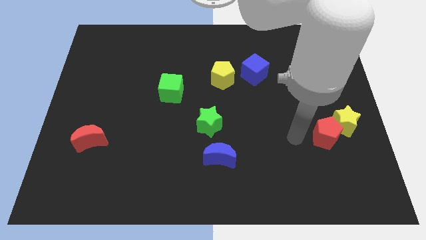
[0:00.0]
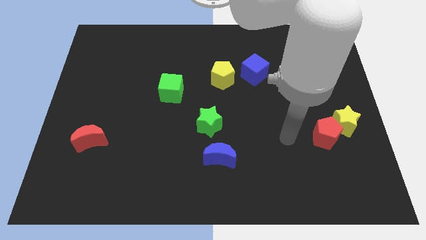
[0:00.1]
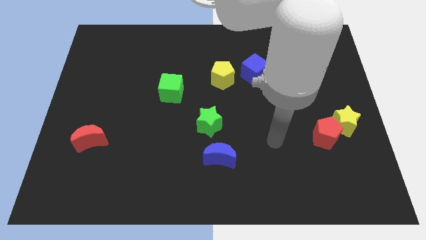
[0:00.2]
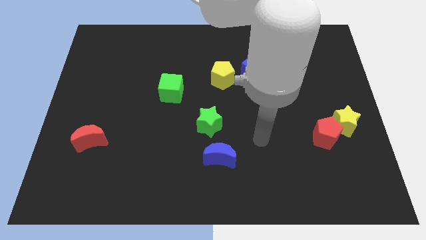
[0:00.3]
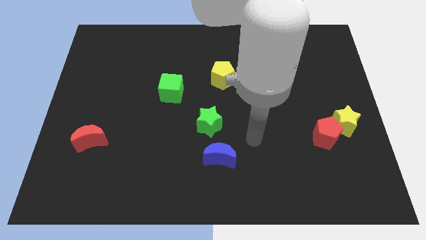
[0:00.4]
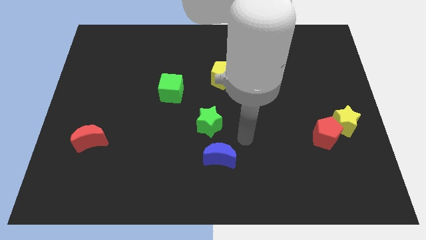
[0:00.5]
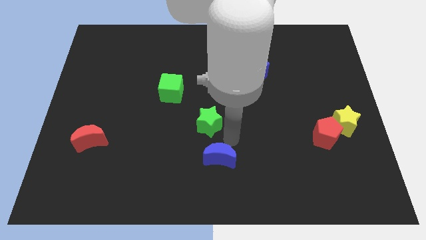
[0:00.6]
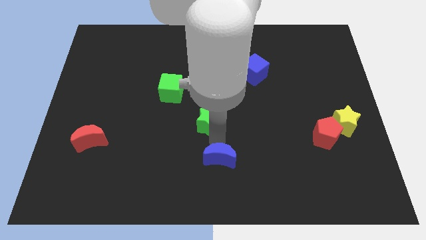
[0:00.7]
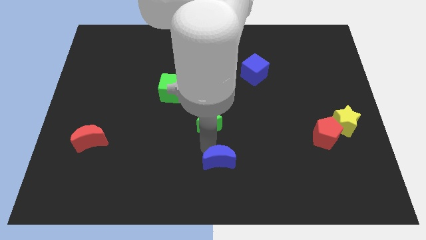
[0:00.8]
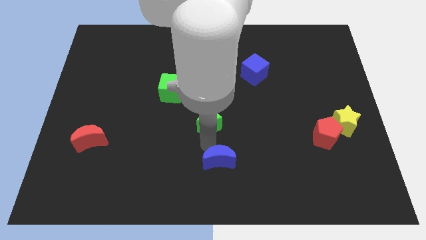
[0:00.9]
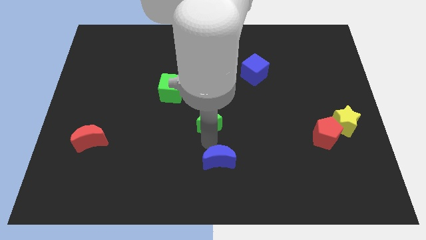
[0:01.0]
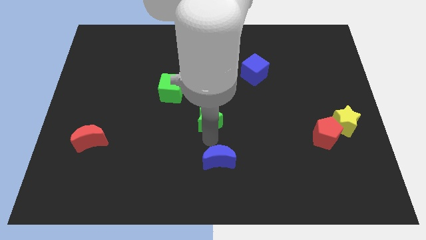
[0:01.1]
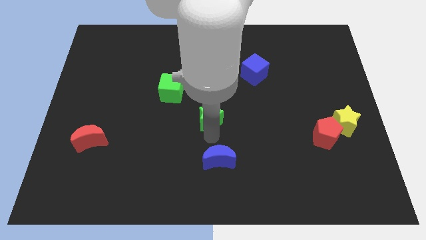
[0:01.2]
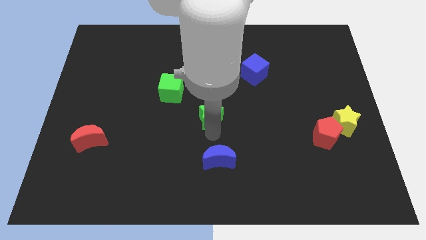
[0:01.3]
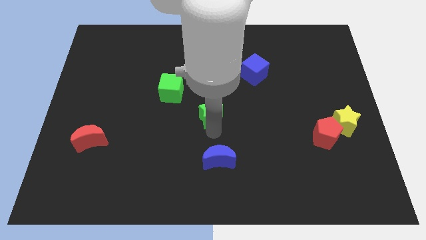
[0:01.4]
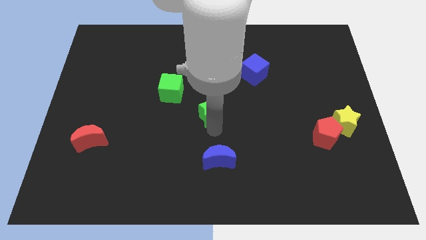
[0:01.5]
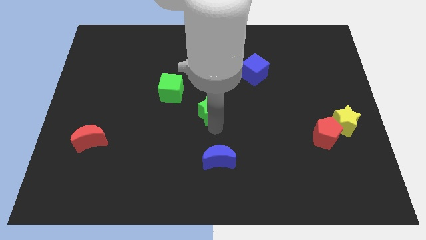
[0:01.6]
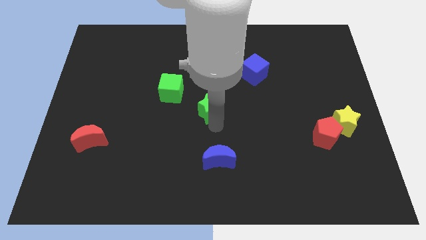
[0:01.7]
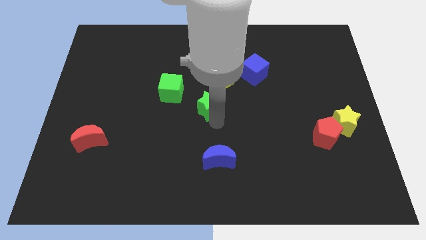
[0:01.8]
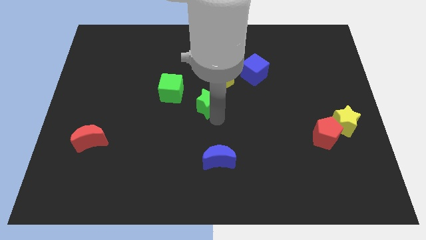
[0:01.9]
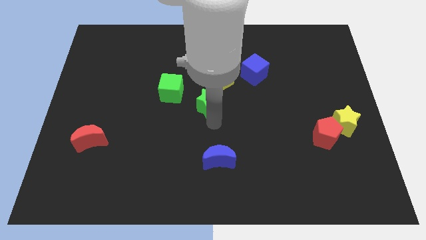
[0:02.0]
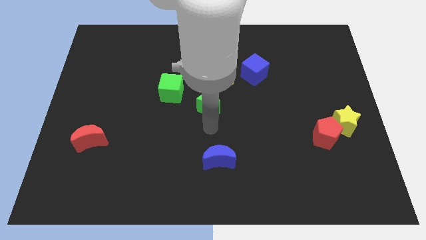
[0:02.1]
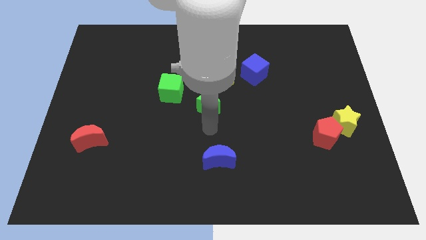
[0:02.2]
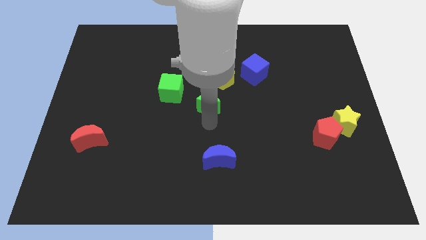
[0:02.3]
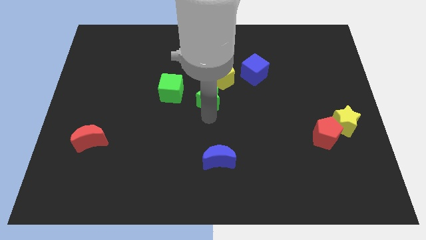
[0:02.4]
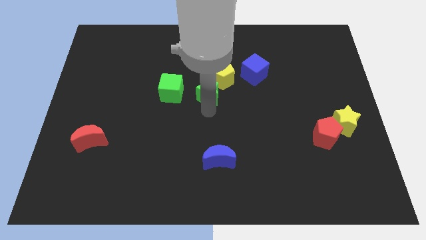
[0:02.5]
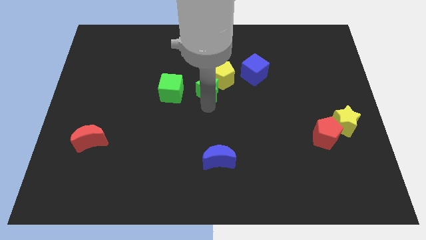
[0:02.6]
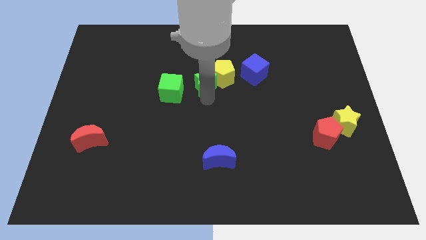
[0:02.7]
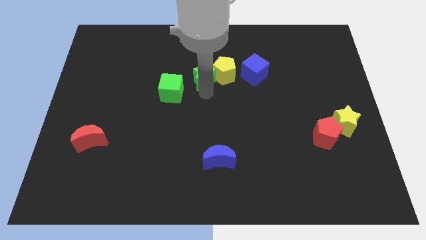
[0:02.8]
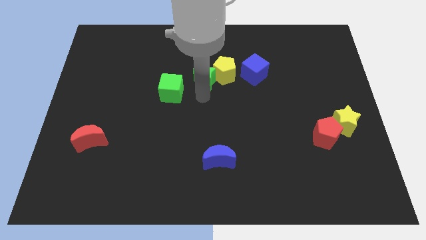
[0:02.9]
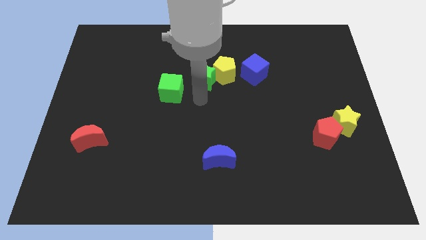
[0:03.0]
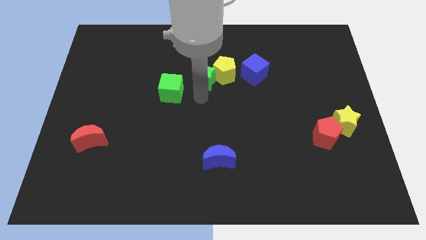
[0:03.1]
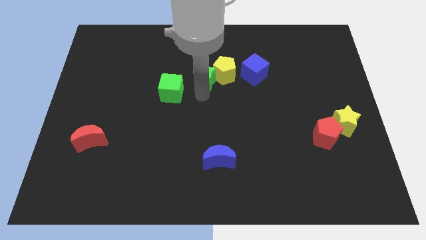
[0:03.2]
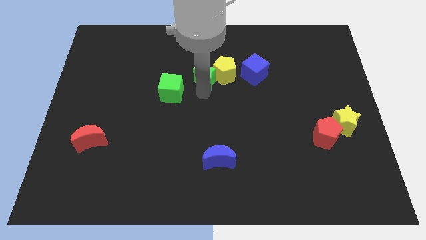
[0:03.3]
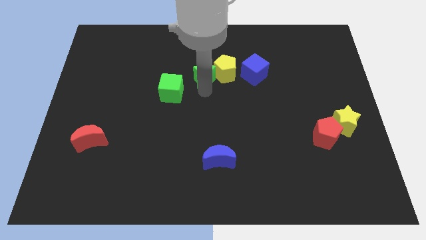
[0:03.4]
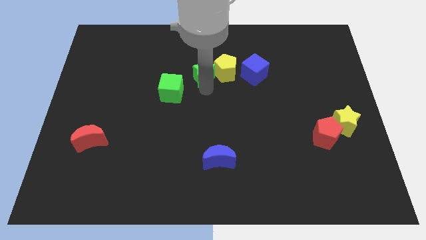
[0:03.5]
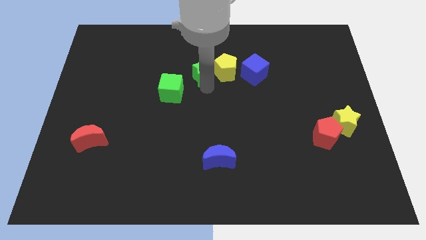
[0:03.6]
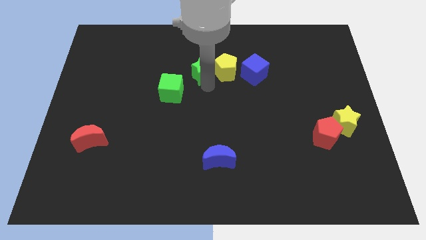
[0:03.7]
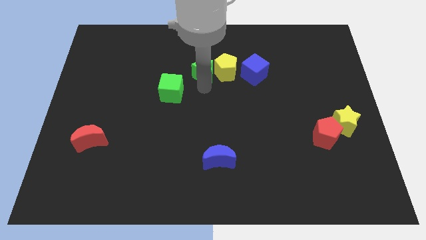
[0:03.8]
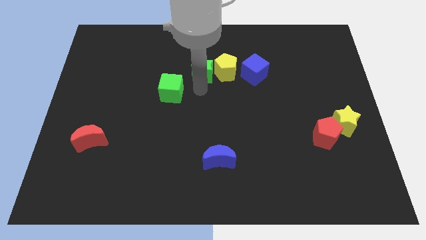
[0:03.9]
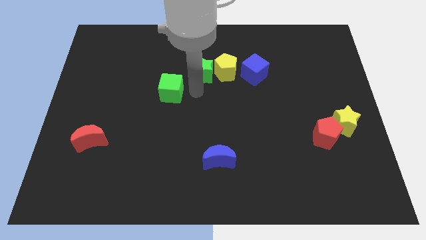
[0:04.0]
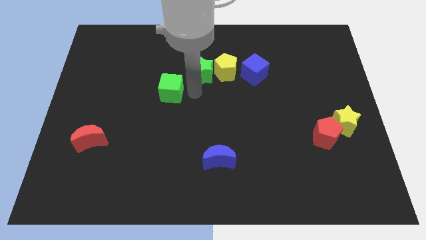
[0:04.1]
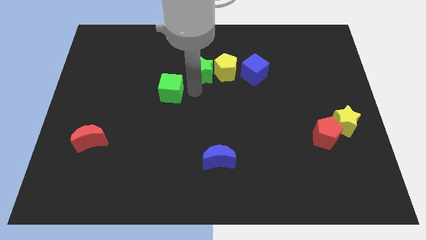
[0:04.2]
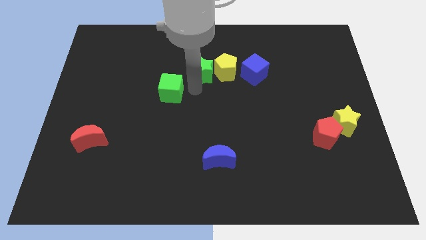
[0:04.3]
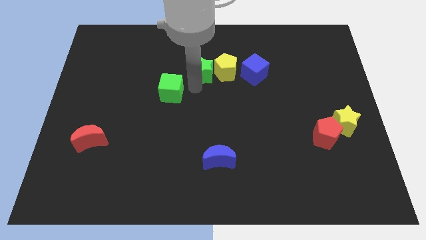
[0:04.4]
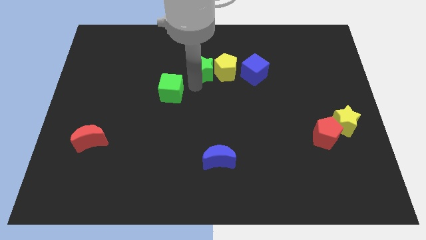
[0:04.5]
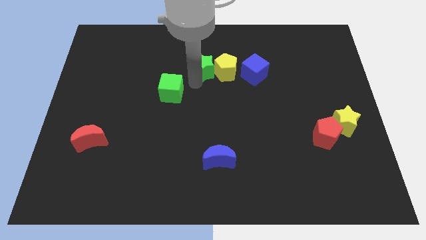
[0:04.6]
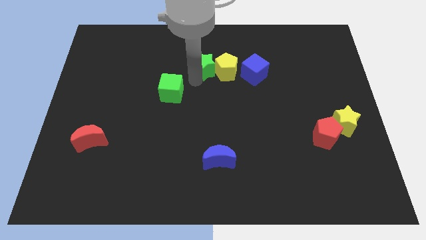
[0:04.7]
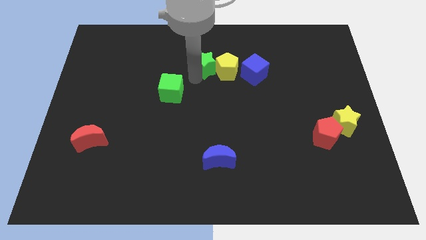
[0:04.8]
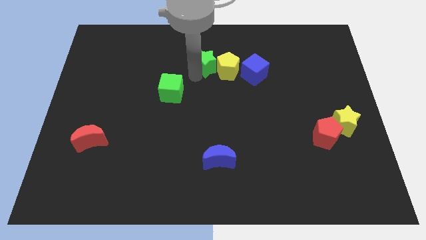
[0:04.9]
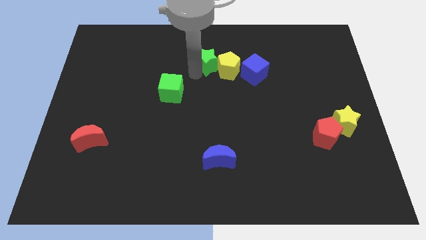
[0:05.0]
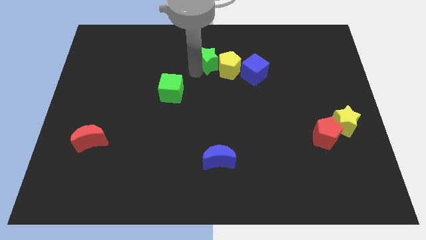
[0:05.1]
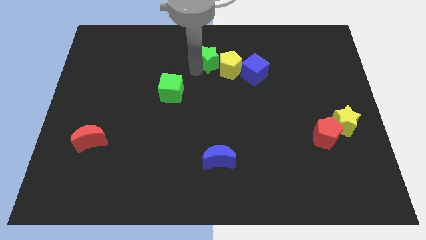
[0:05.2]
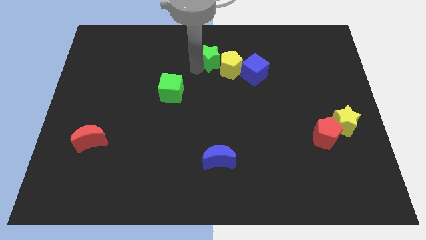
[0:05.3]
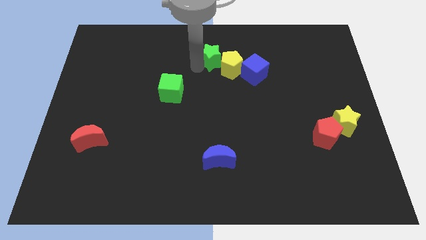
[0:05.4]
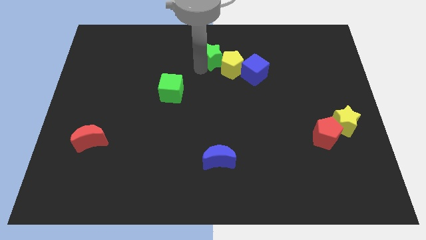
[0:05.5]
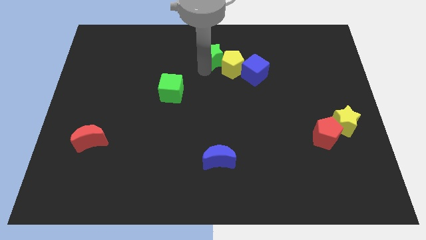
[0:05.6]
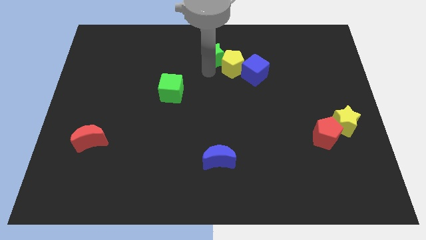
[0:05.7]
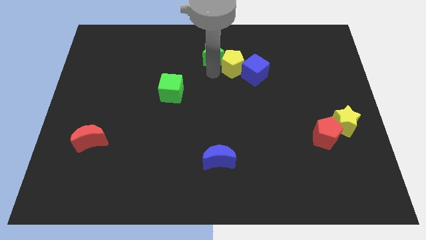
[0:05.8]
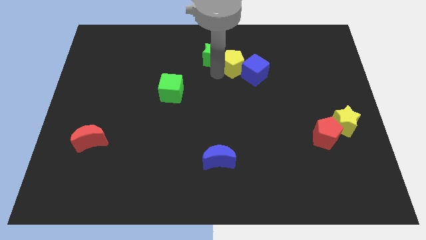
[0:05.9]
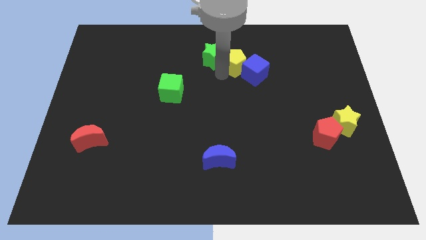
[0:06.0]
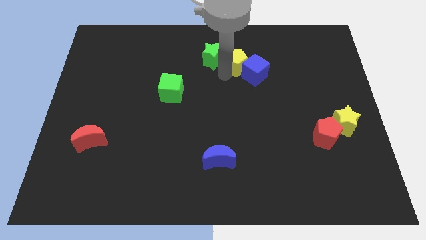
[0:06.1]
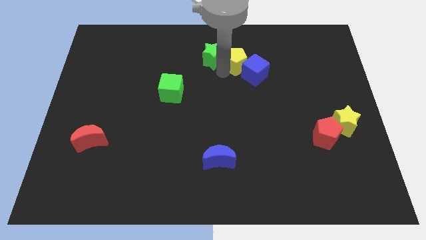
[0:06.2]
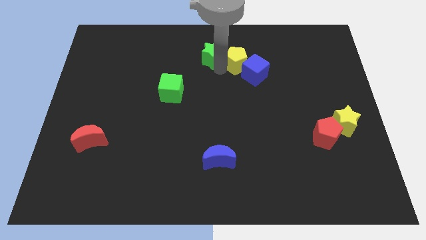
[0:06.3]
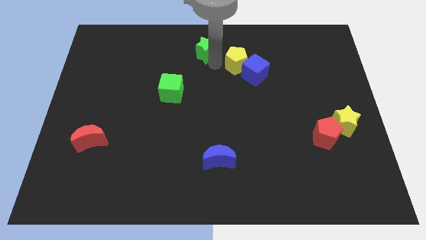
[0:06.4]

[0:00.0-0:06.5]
put the green star to the top side
